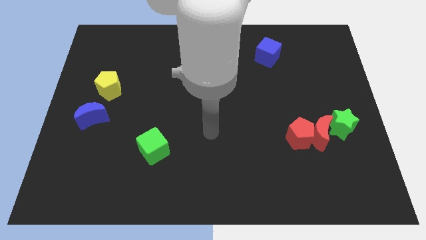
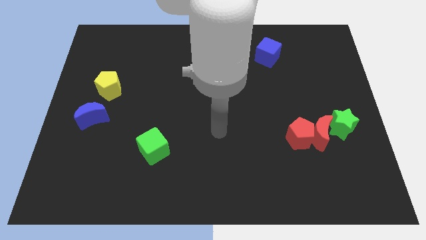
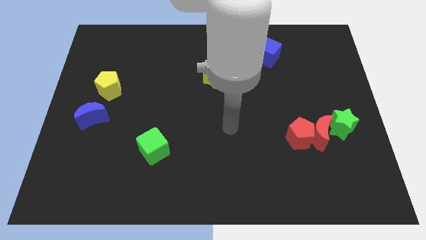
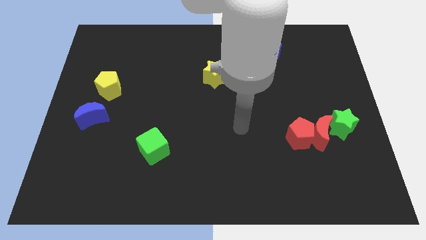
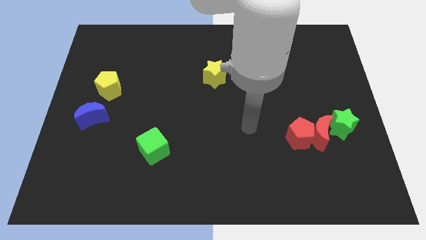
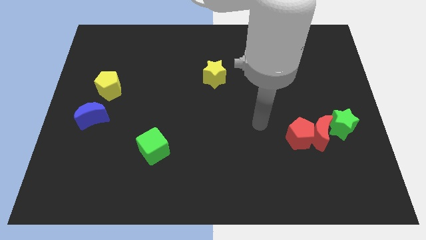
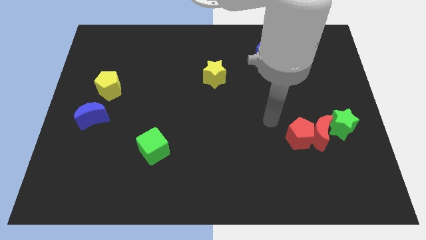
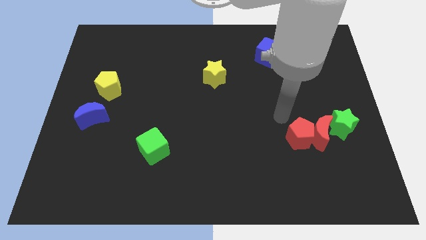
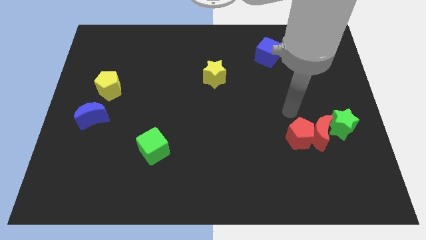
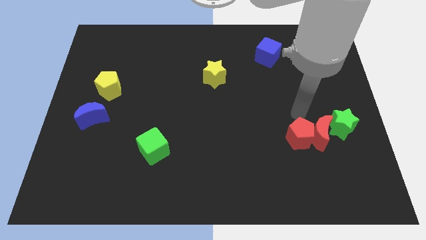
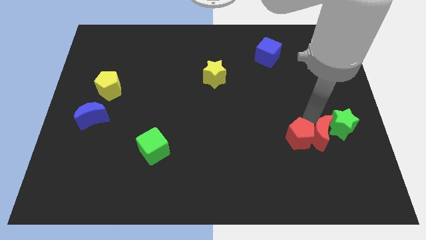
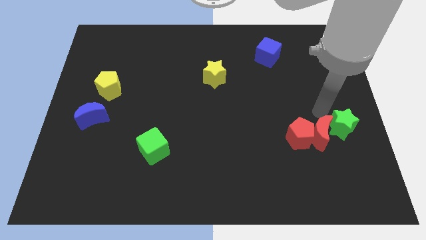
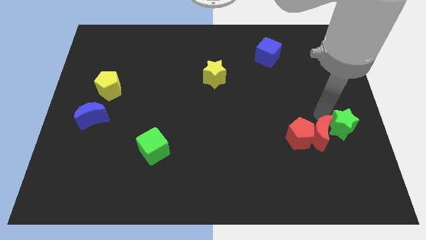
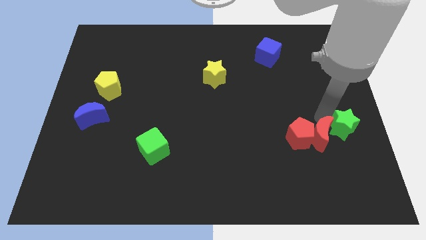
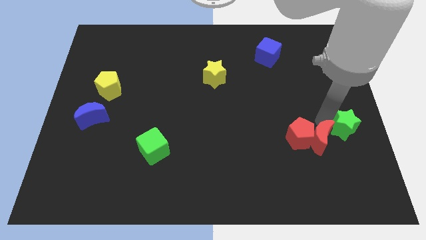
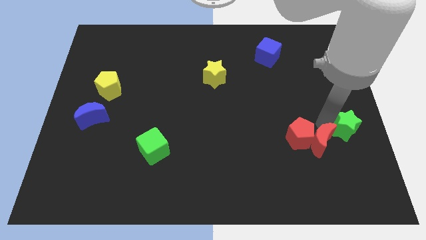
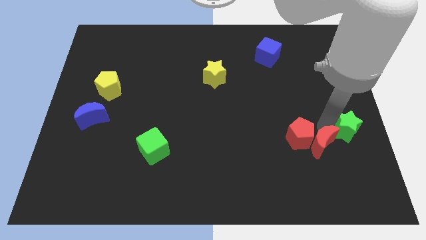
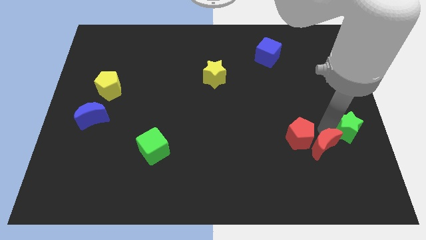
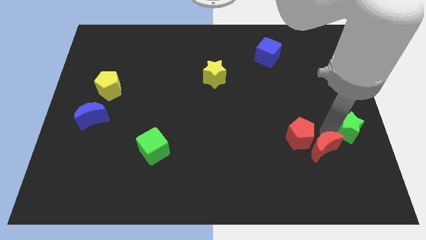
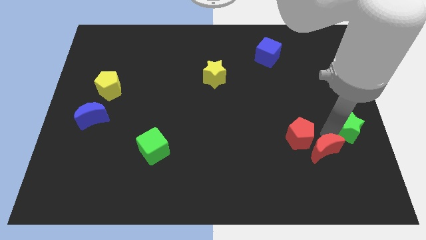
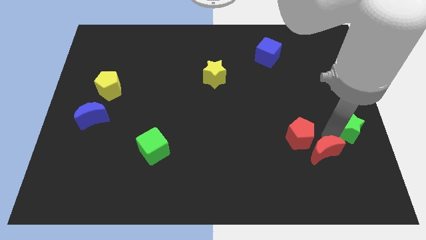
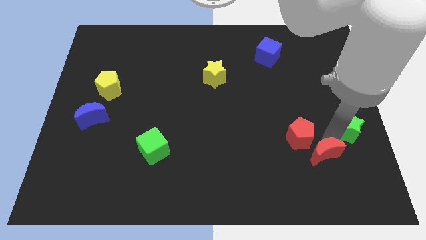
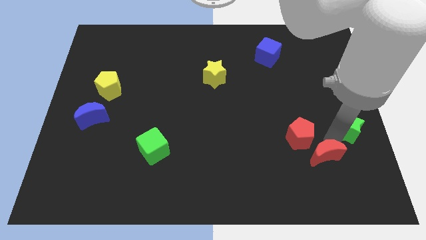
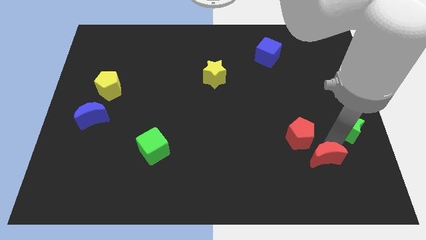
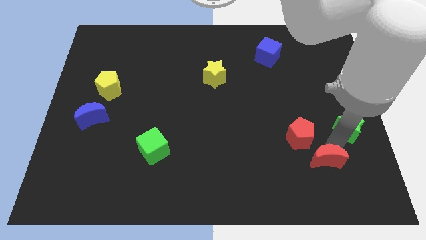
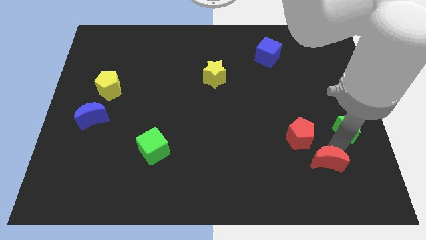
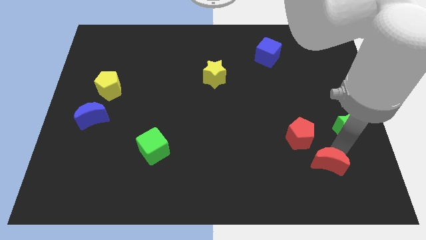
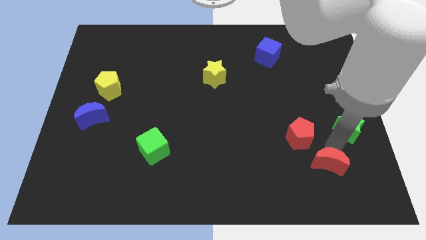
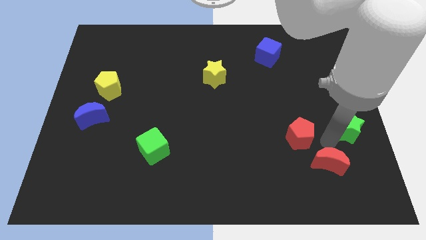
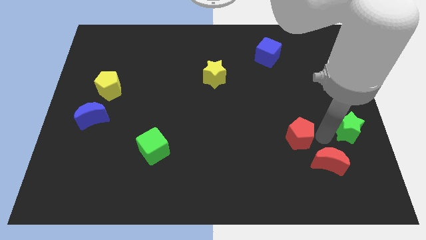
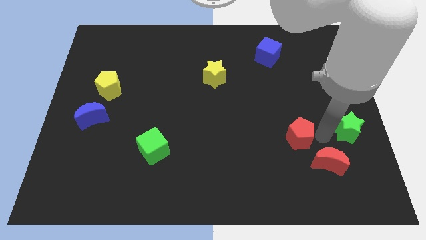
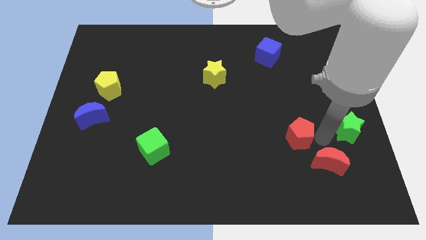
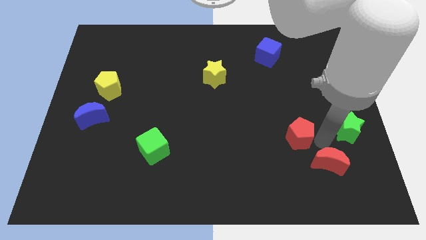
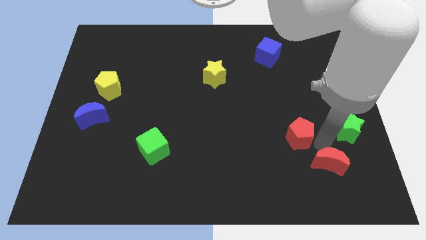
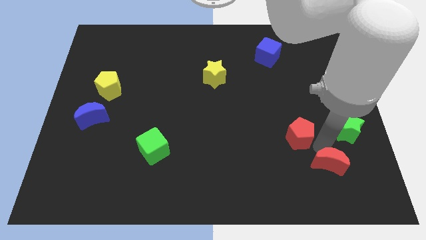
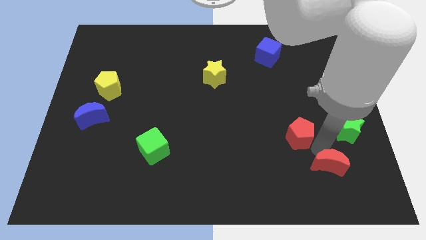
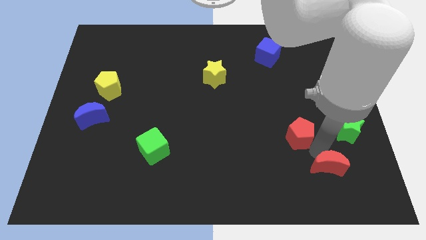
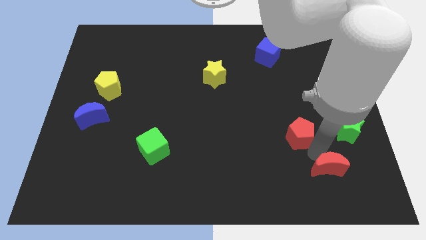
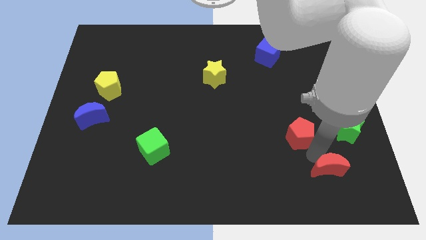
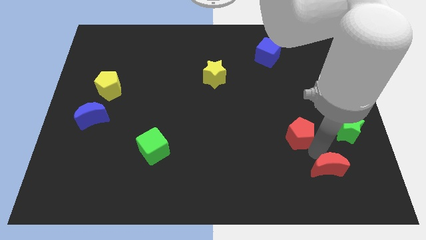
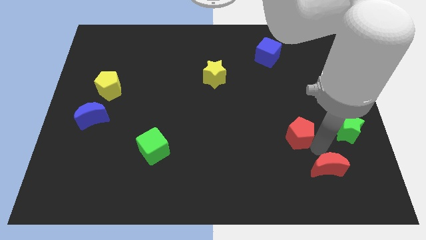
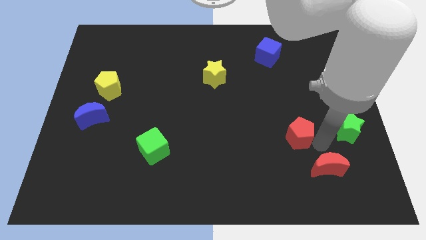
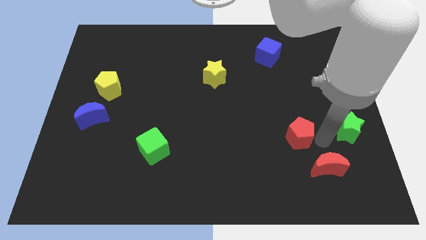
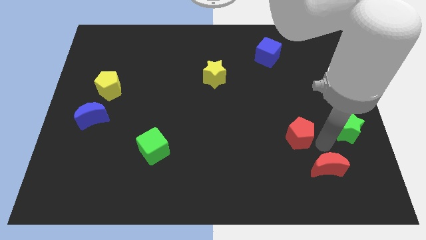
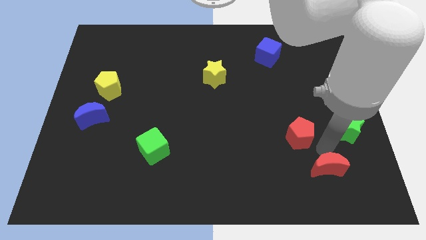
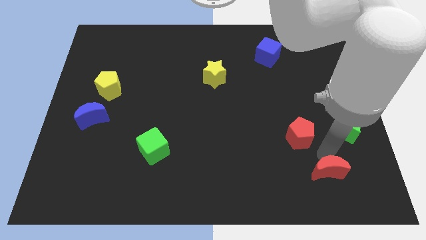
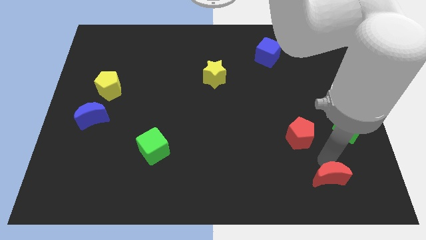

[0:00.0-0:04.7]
move the red moon away from the red pentagon and green star

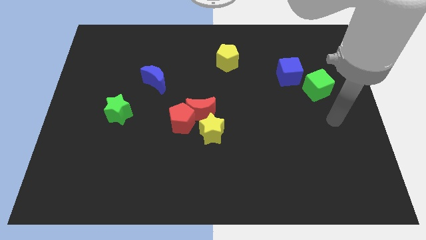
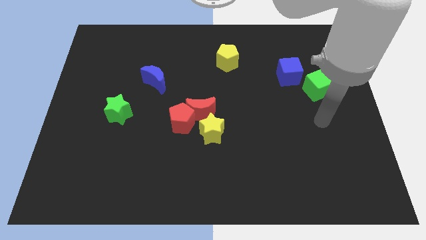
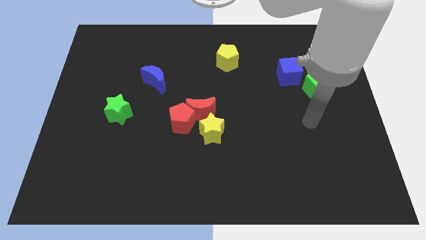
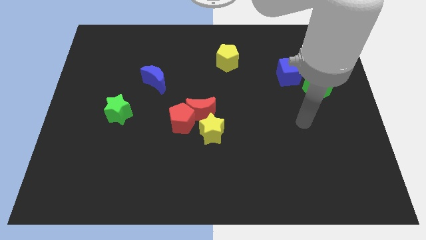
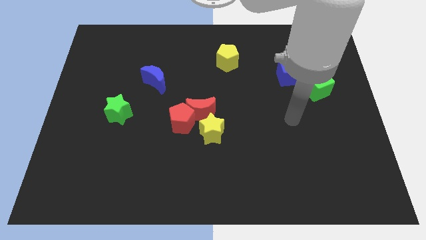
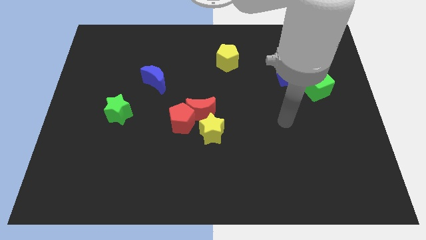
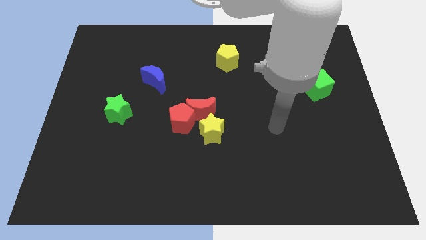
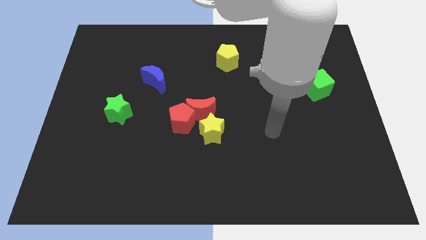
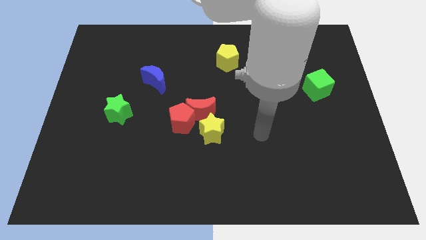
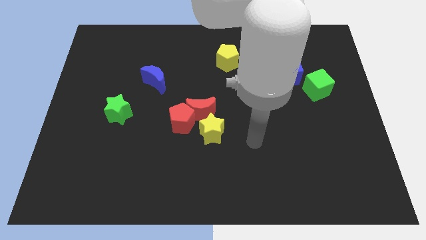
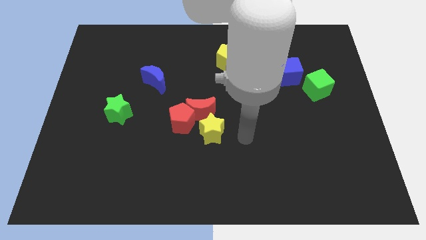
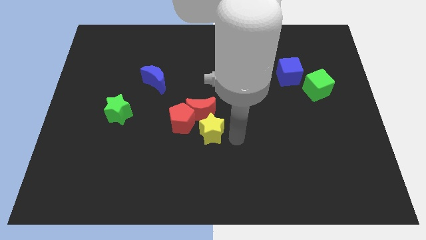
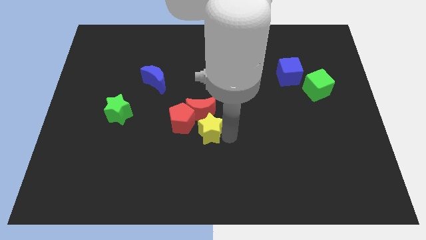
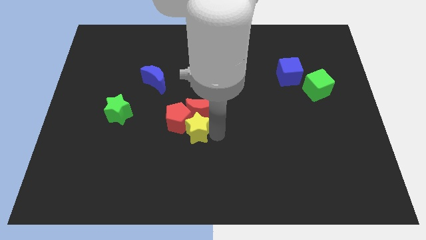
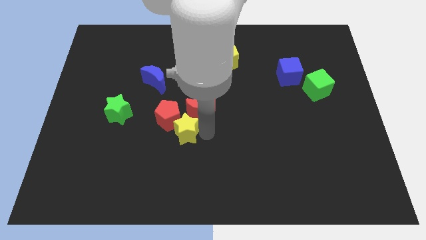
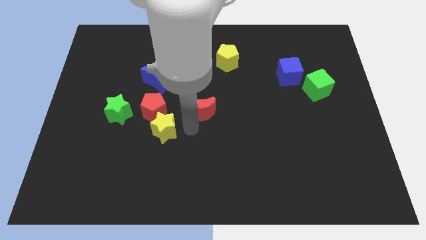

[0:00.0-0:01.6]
separate the red moon from the red pentagon and yellow star

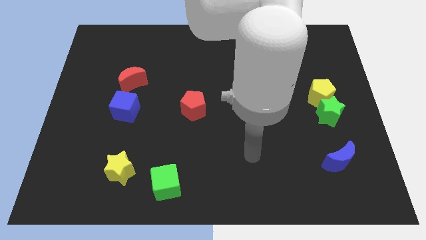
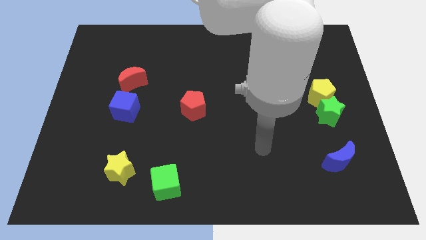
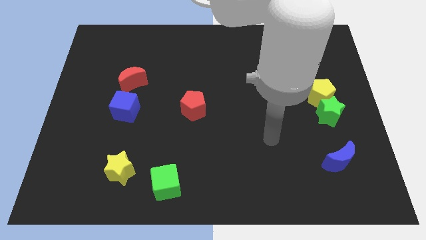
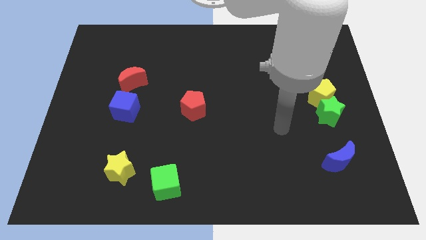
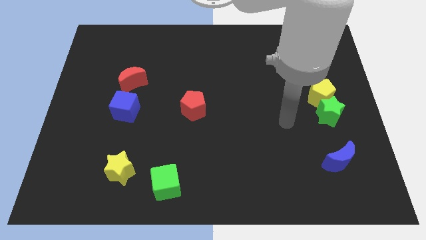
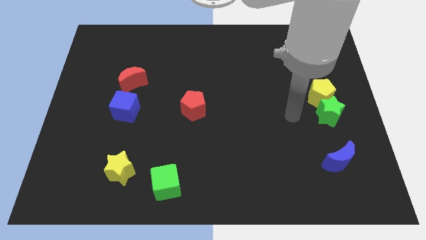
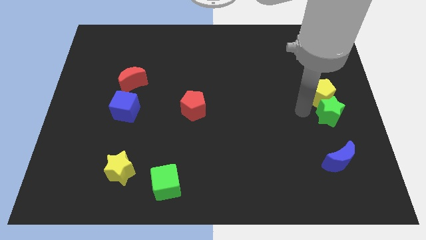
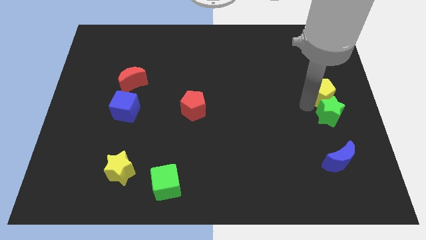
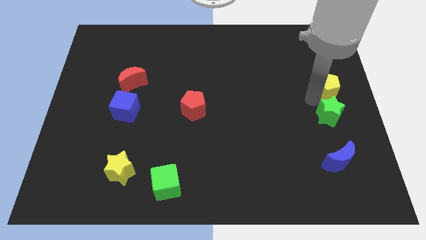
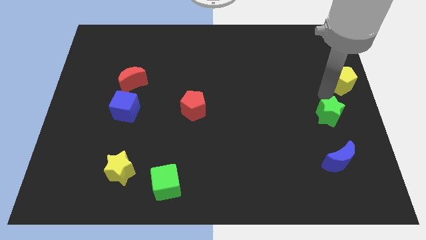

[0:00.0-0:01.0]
separate the green star from the yellow pentagon

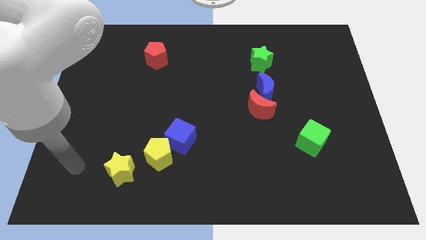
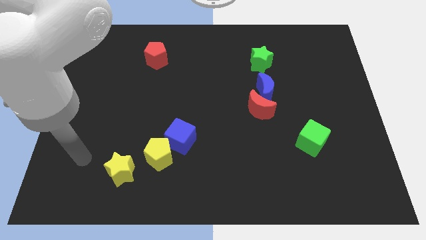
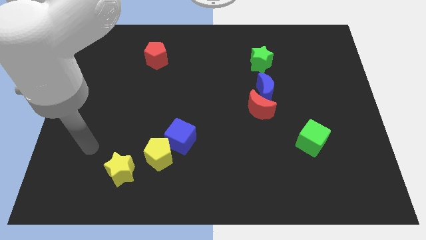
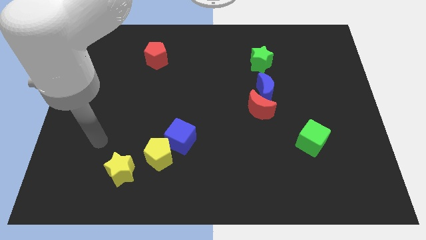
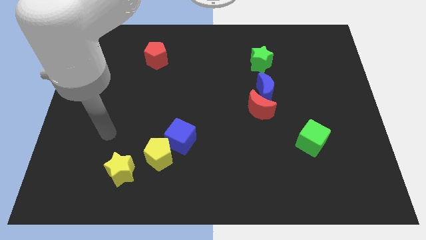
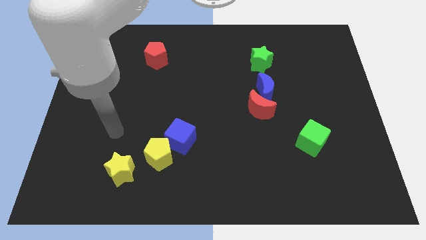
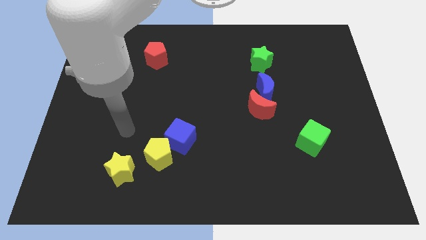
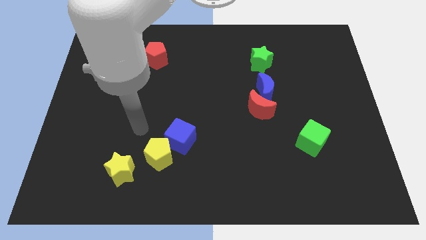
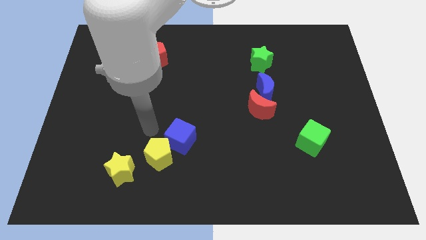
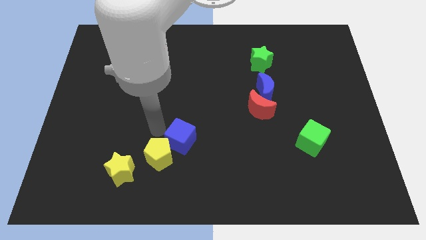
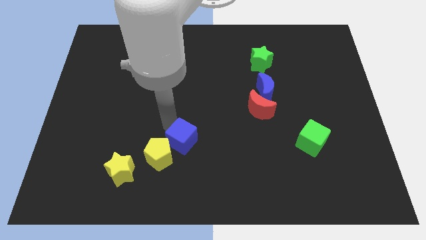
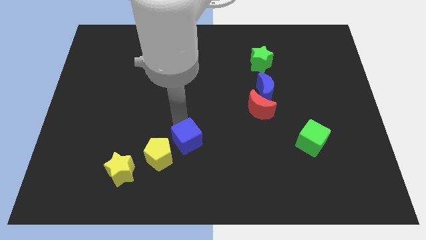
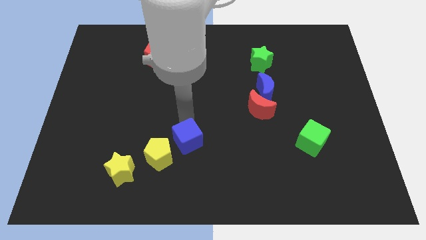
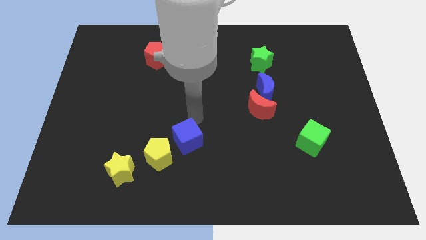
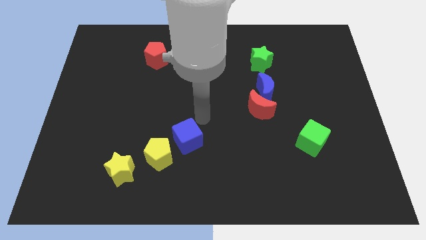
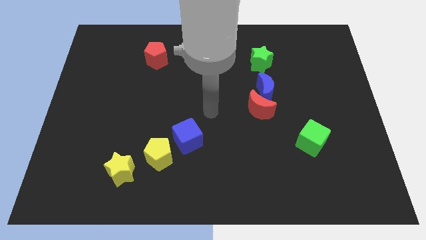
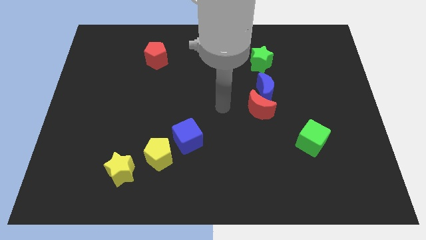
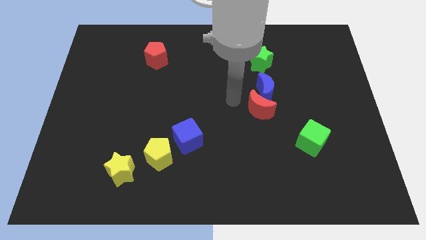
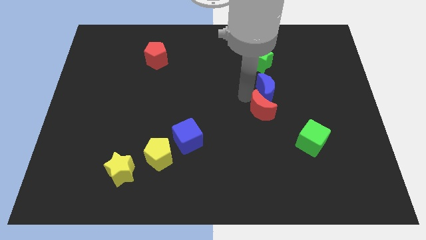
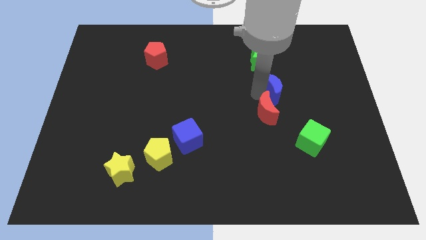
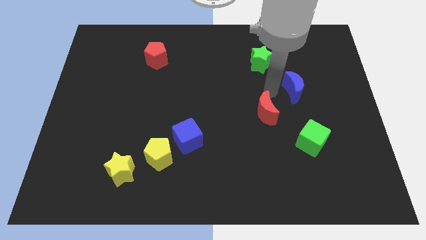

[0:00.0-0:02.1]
pull the red moon apart from the blue moon

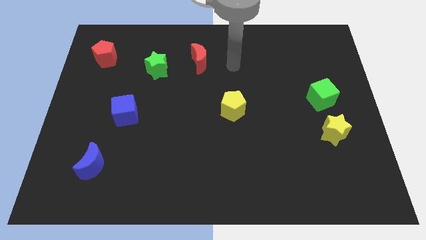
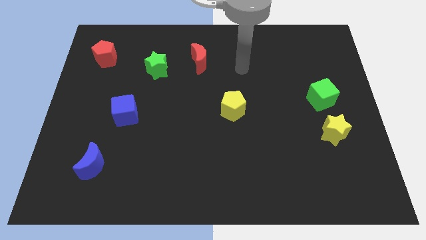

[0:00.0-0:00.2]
pull the green cube apart from the yellow star
